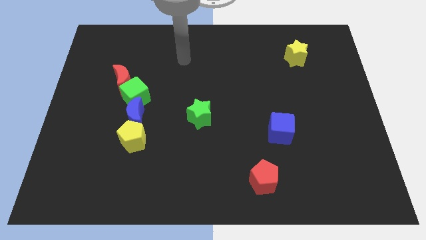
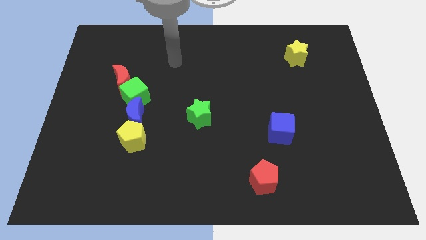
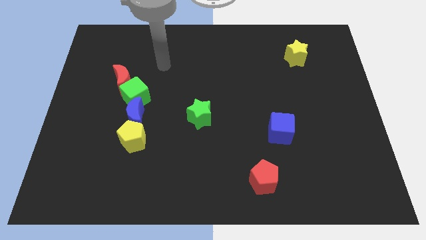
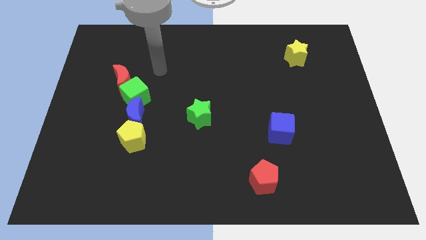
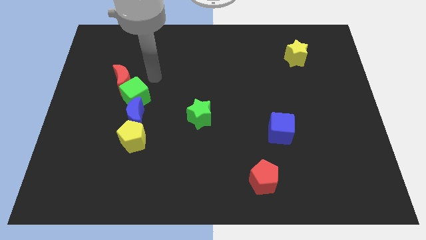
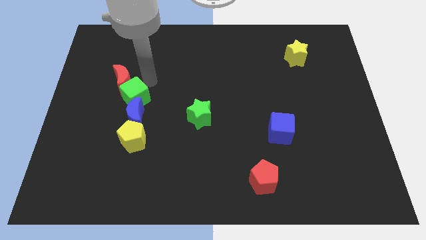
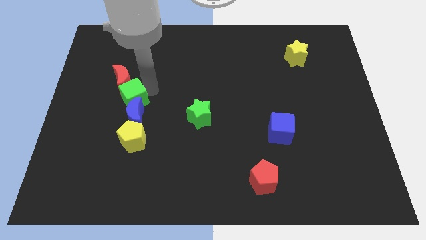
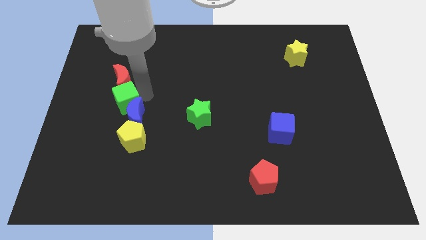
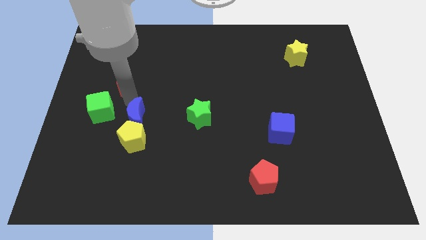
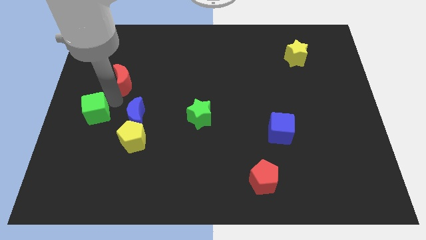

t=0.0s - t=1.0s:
pull the red moon apart from the green cube

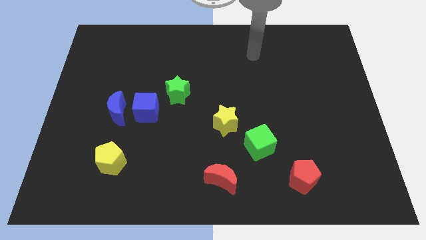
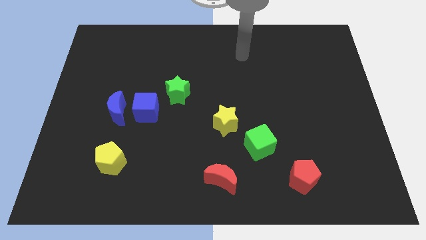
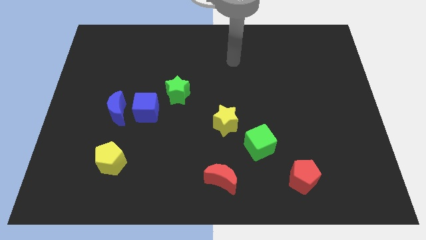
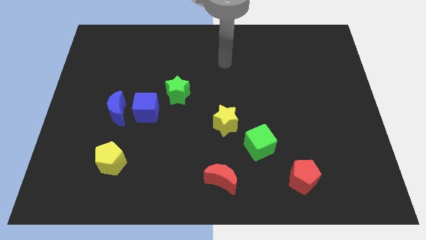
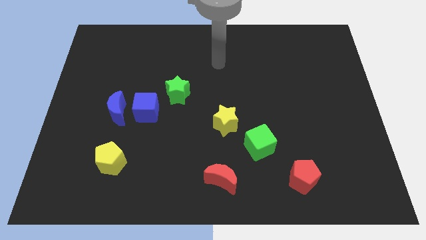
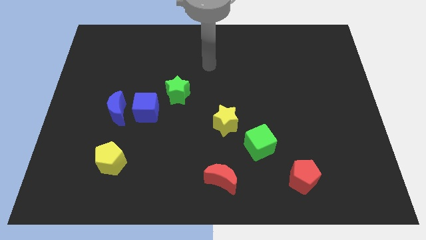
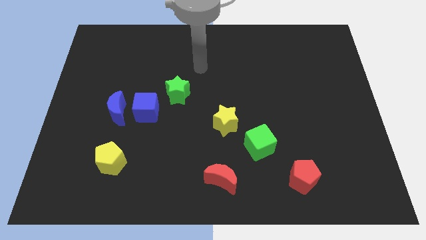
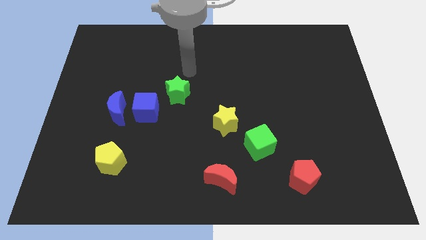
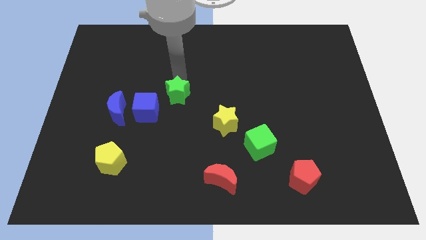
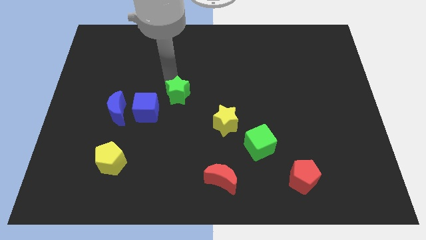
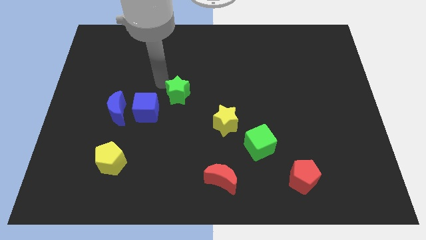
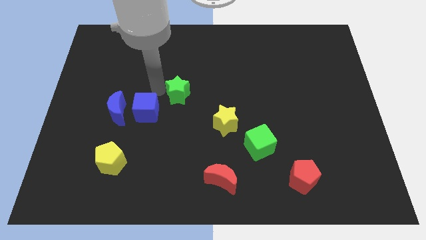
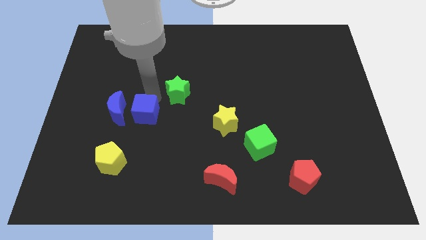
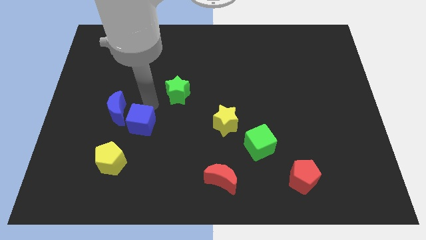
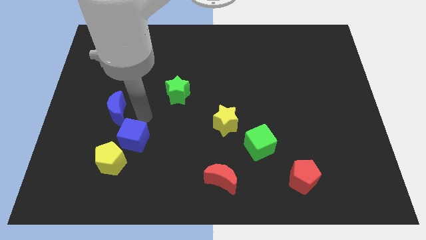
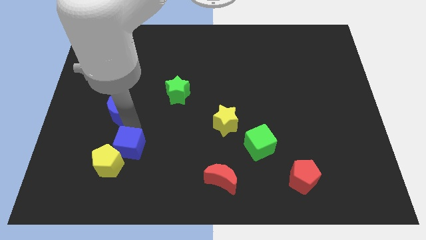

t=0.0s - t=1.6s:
separate the blue moon from the blue cube

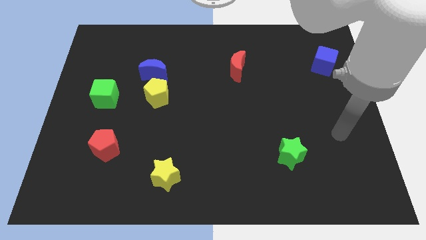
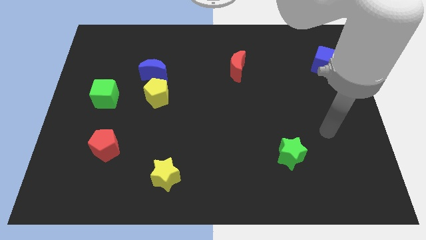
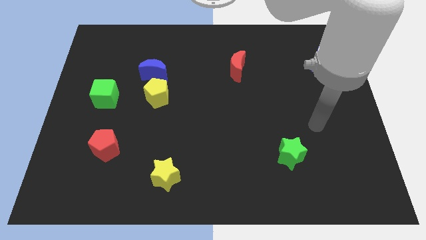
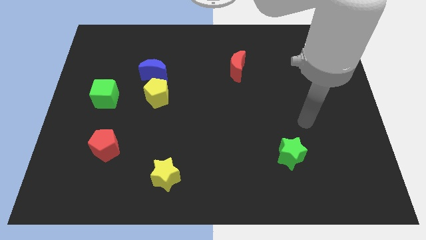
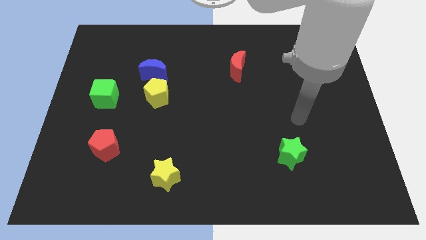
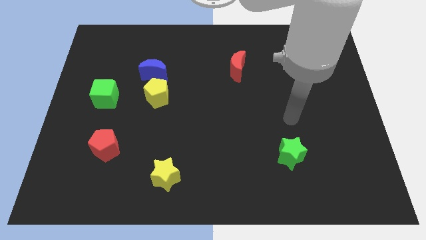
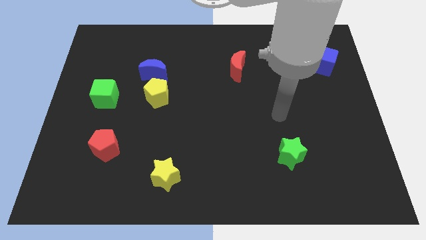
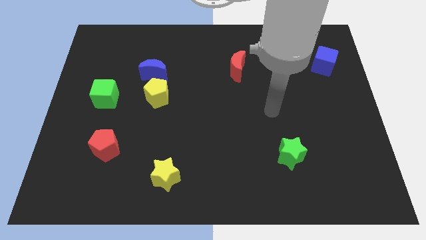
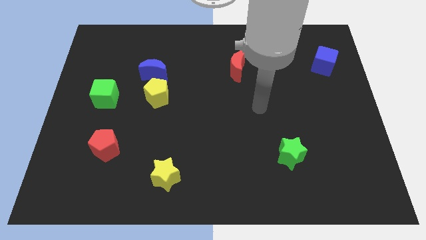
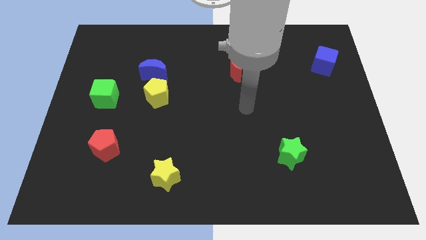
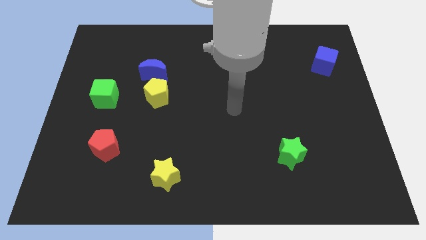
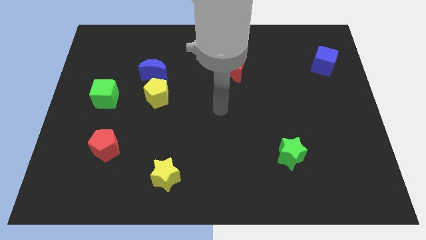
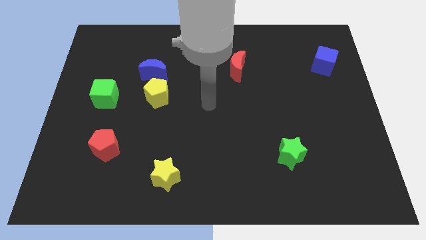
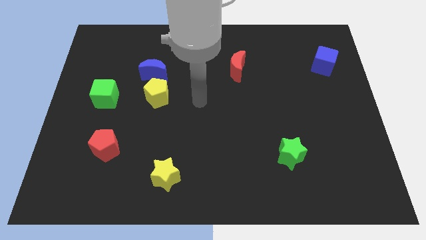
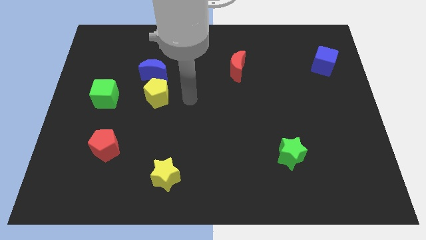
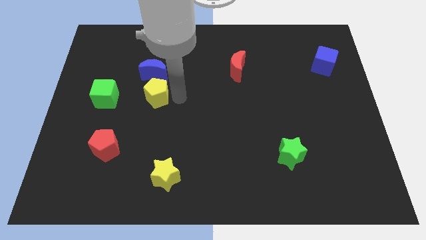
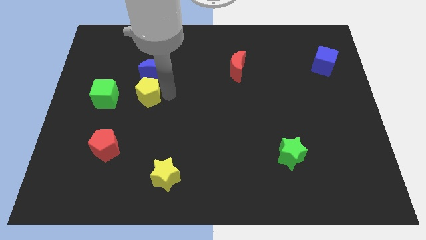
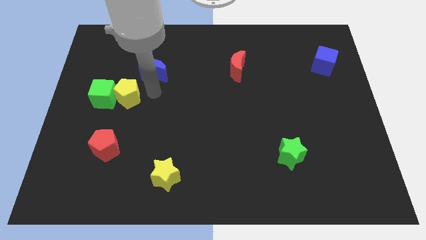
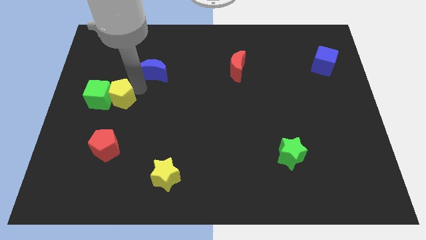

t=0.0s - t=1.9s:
move the blue moon away from the yellow pentagon

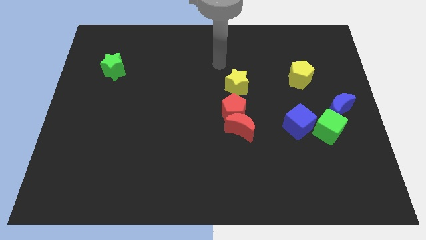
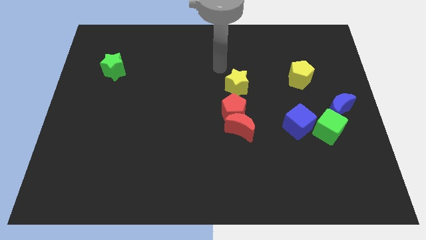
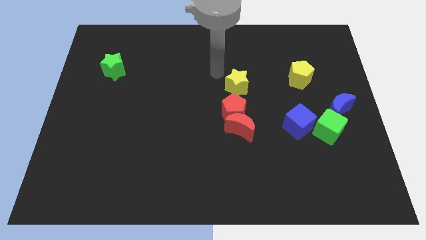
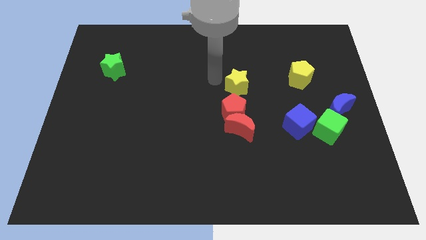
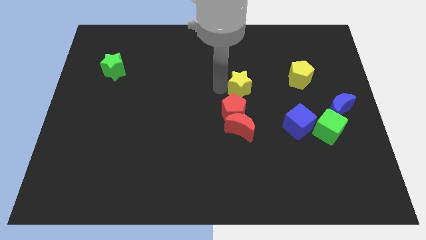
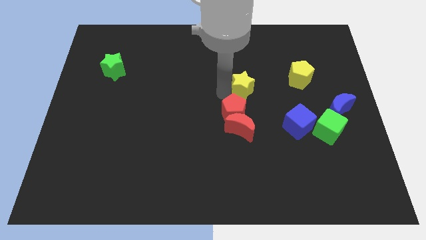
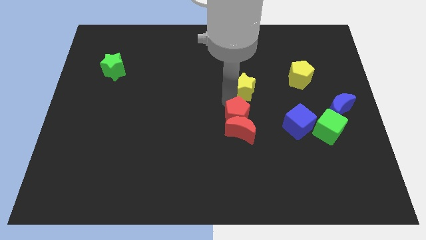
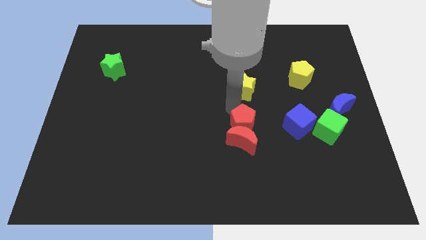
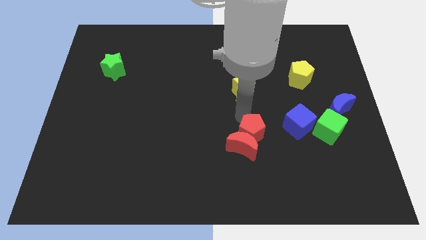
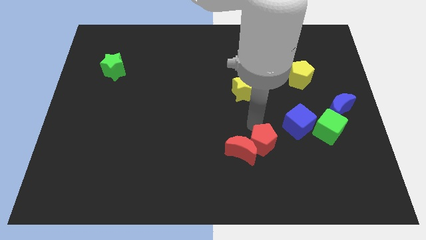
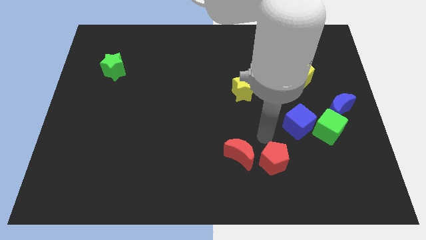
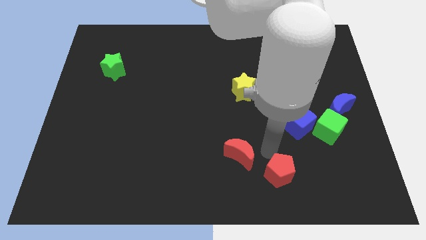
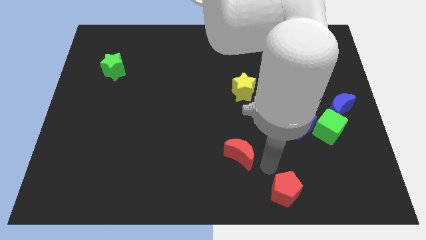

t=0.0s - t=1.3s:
move the red moon away from the red pentagon

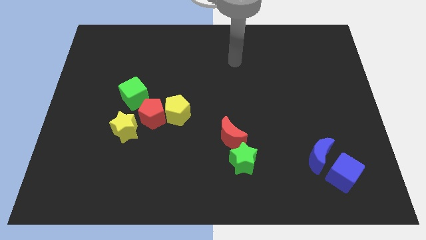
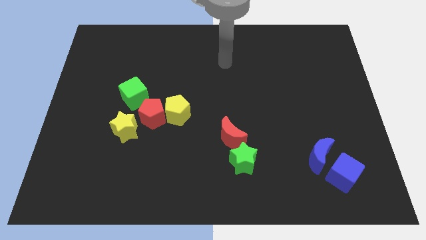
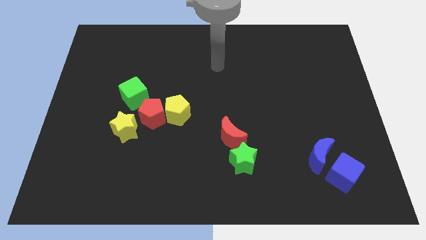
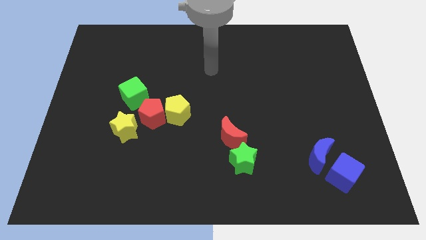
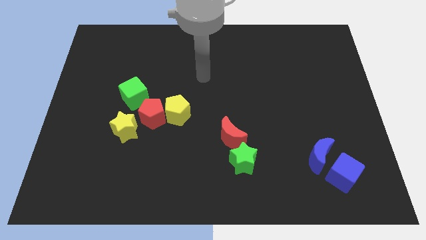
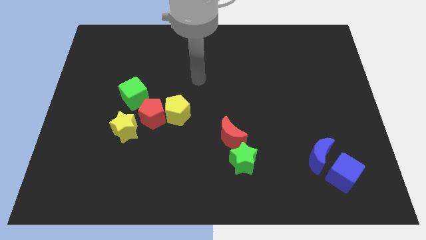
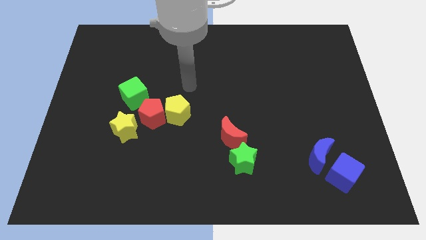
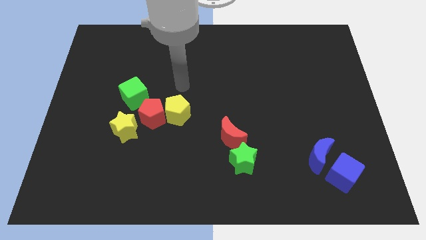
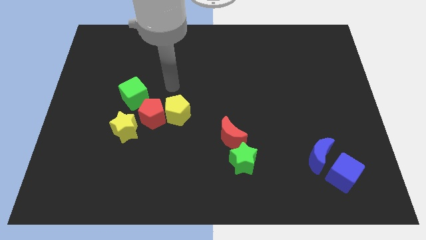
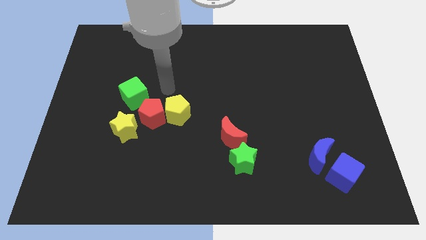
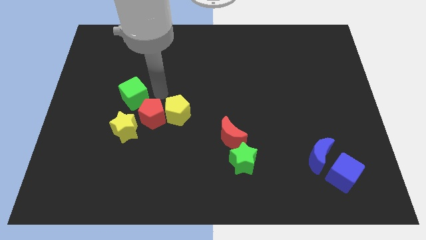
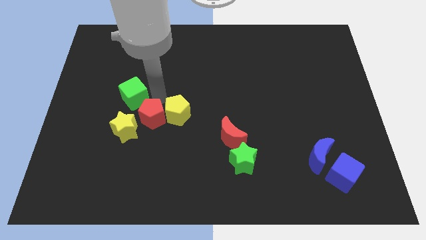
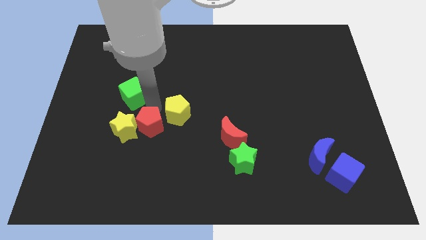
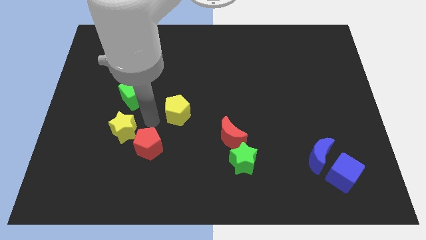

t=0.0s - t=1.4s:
move the yellow pentagon away from the red pentagon

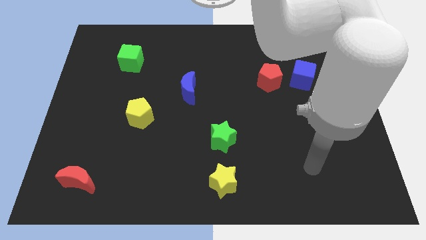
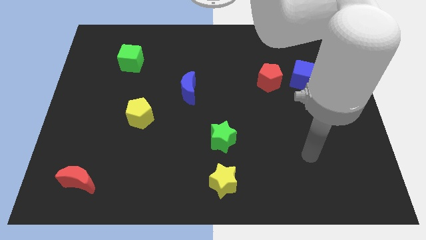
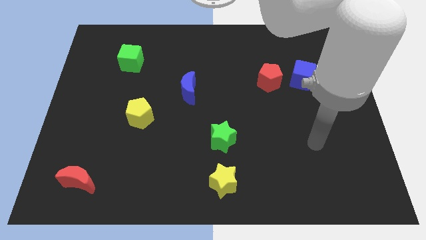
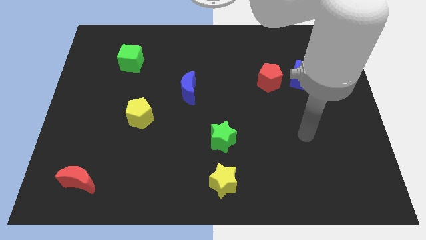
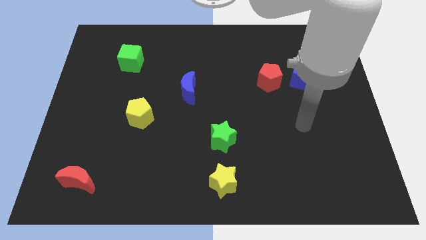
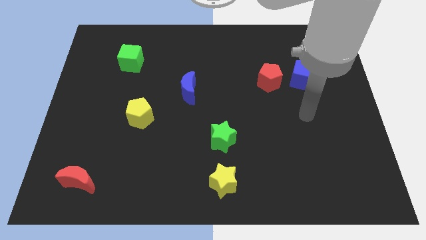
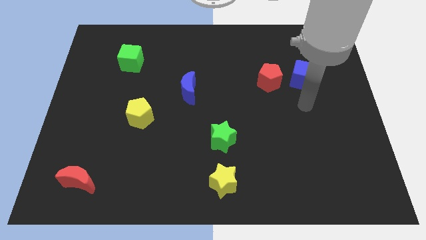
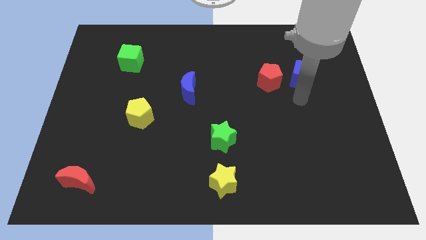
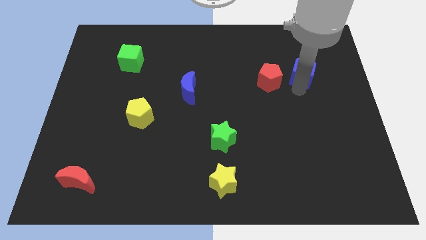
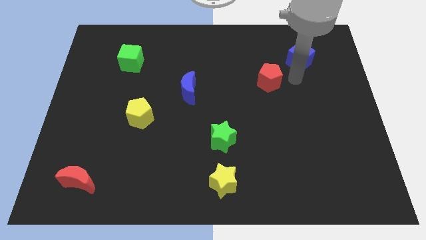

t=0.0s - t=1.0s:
move the red pentagon away from the blue cube

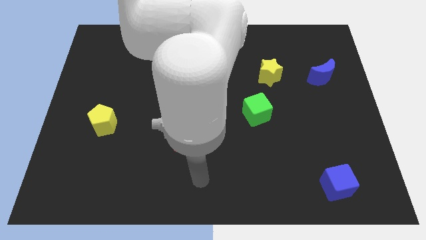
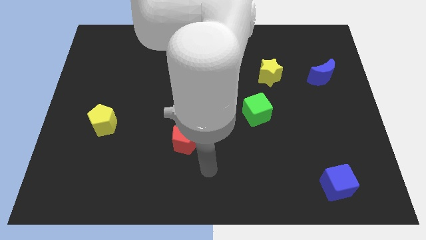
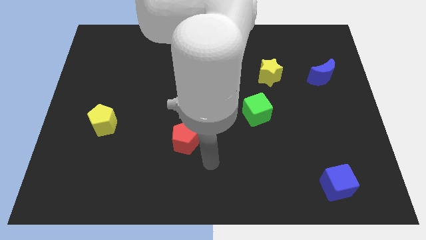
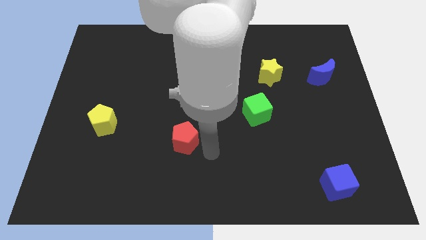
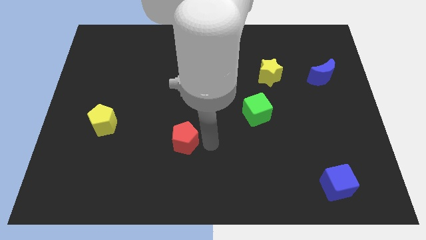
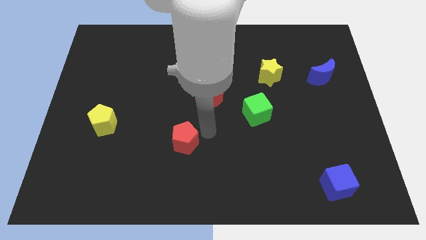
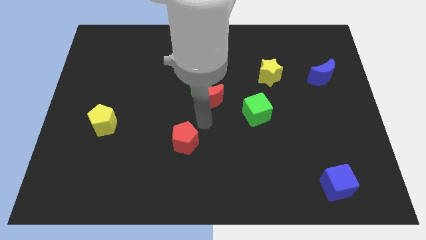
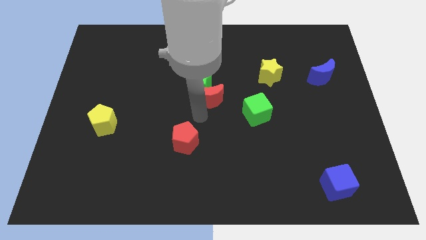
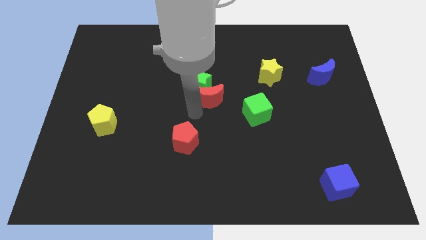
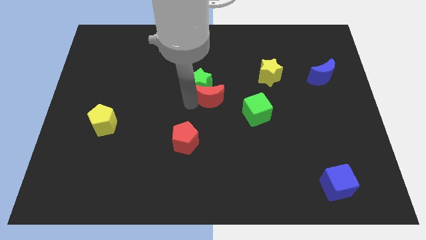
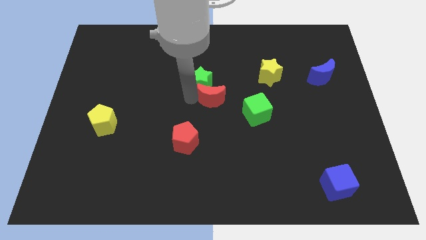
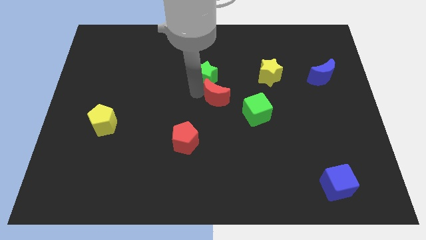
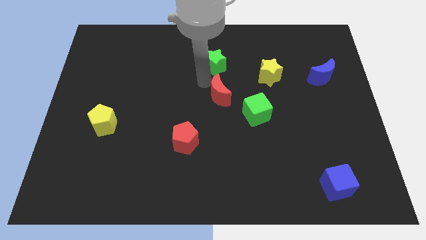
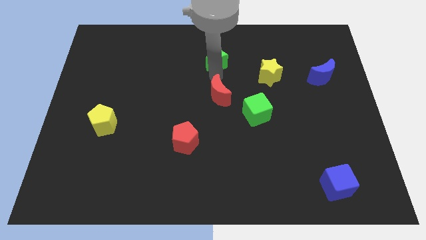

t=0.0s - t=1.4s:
move the red moon away from the green star
